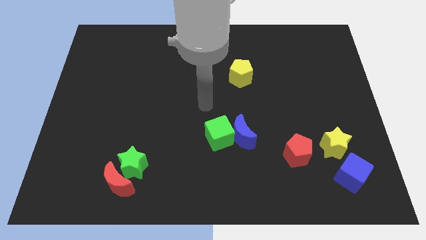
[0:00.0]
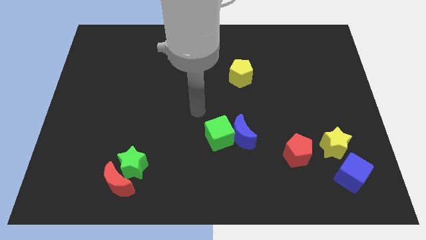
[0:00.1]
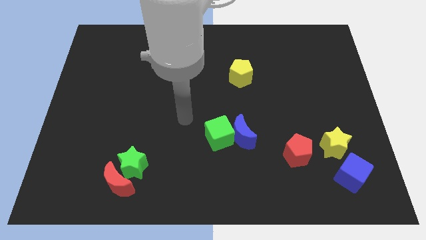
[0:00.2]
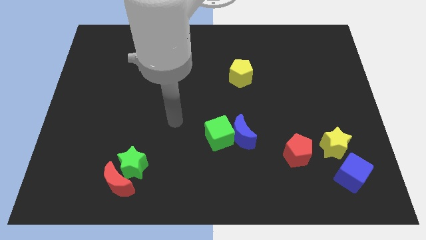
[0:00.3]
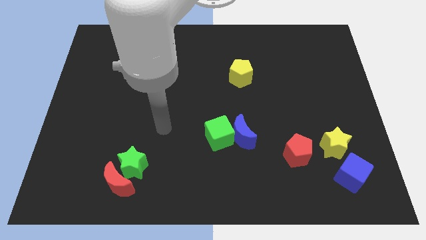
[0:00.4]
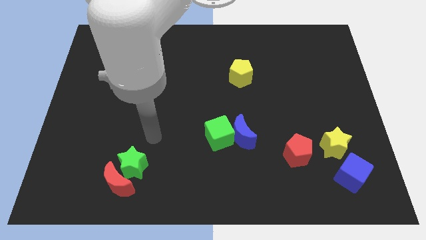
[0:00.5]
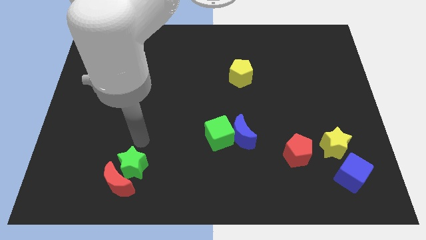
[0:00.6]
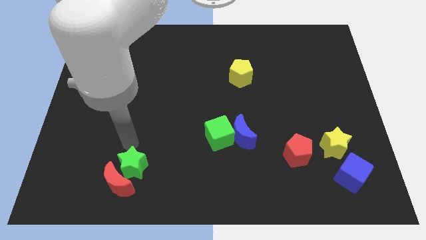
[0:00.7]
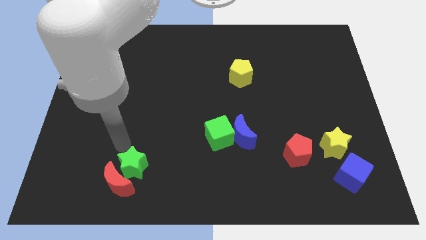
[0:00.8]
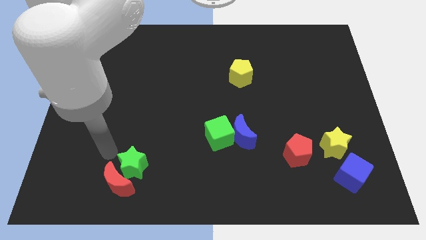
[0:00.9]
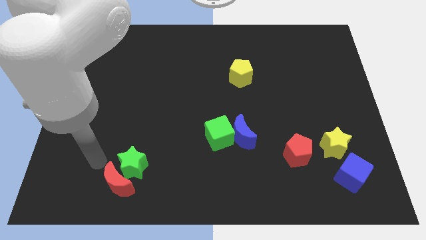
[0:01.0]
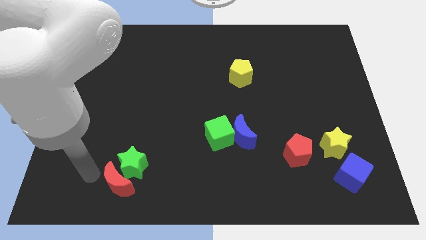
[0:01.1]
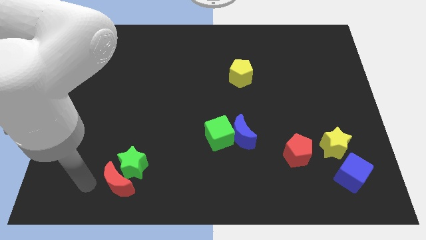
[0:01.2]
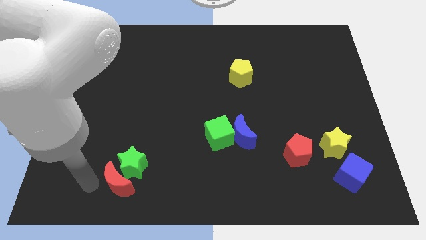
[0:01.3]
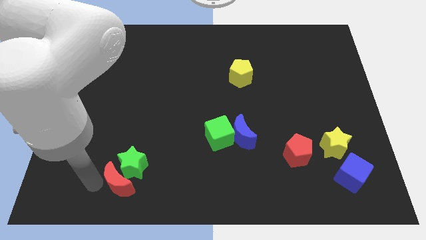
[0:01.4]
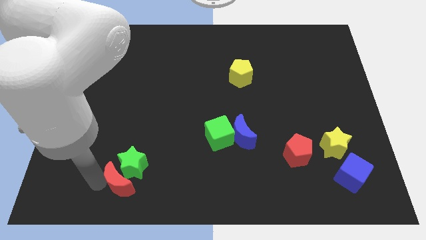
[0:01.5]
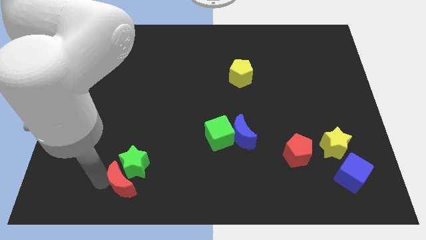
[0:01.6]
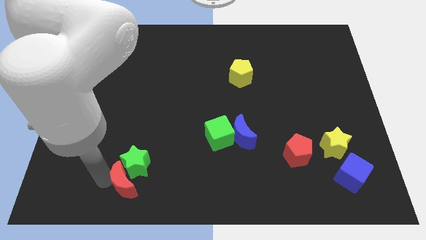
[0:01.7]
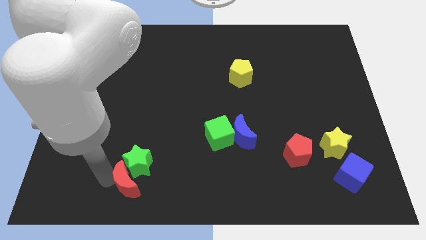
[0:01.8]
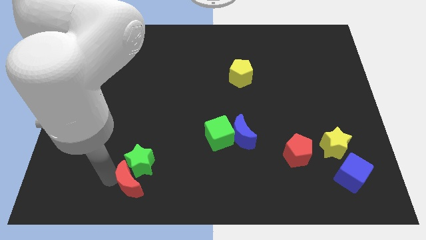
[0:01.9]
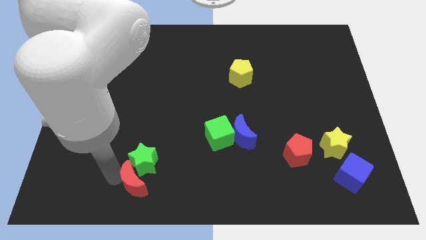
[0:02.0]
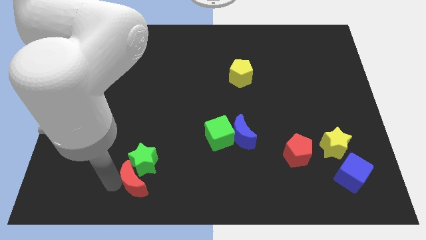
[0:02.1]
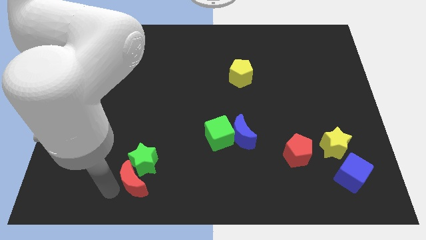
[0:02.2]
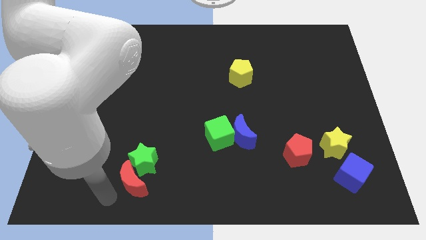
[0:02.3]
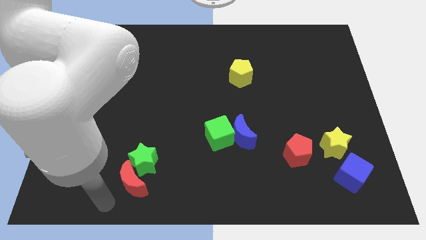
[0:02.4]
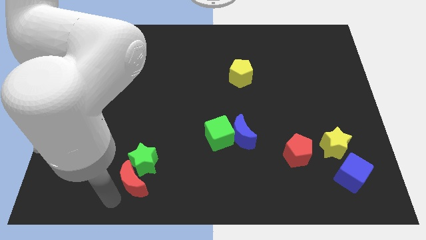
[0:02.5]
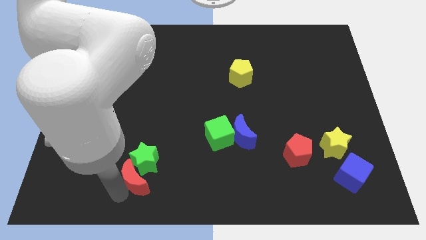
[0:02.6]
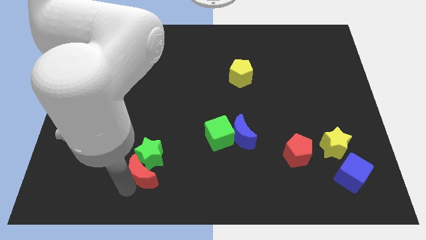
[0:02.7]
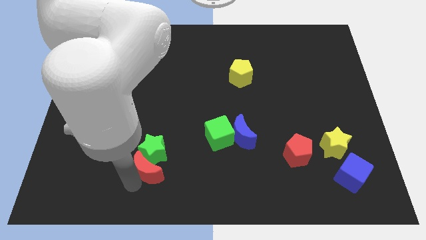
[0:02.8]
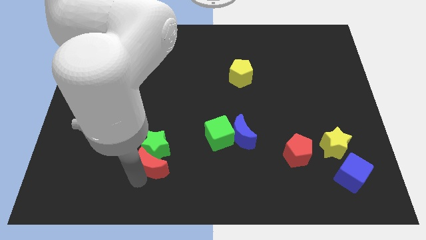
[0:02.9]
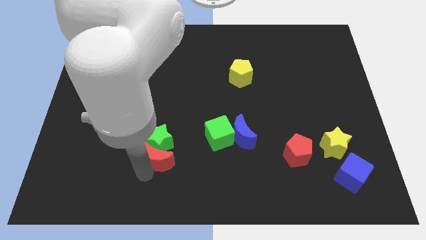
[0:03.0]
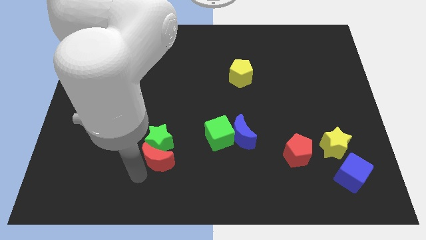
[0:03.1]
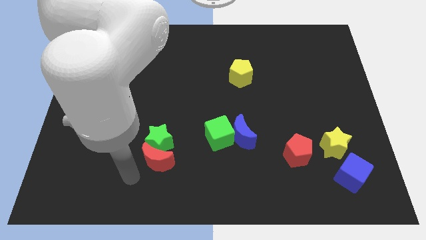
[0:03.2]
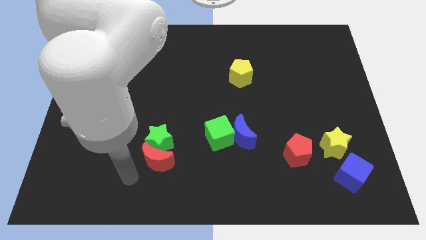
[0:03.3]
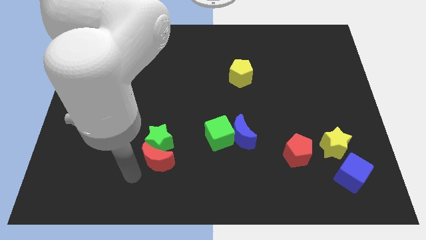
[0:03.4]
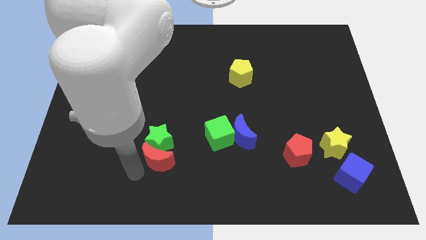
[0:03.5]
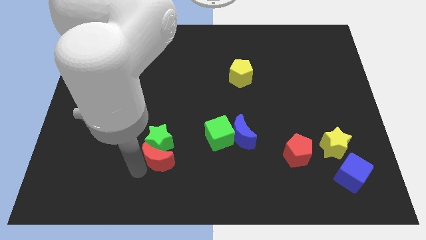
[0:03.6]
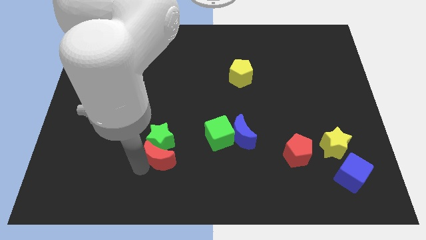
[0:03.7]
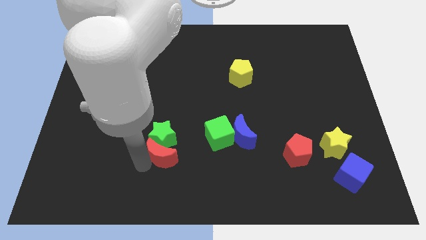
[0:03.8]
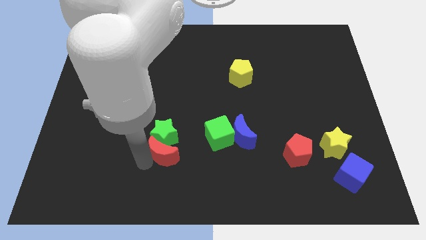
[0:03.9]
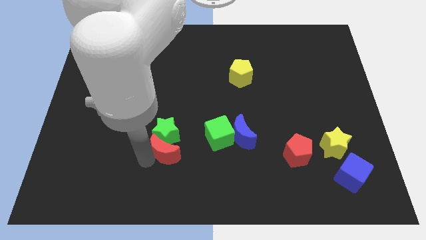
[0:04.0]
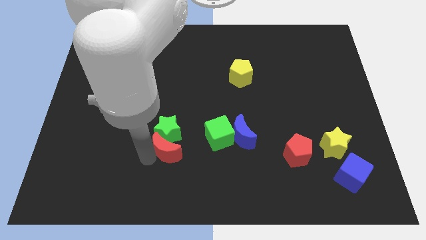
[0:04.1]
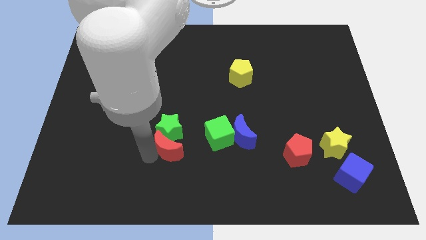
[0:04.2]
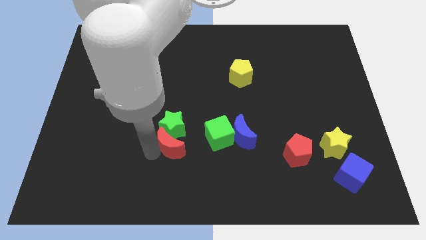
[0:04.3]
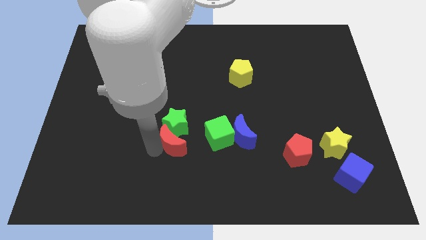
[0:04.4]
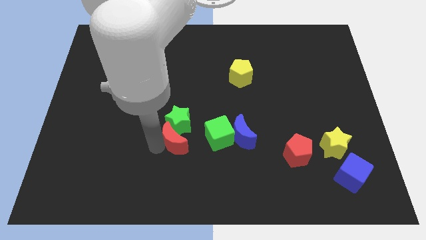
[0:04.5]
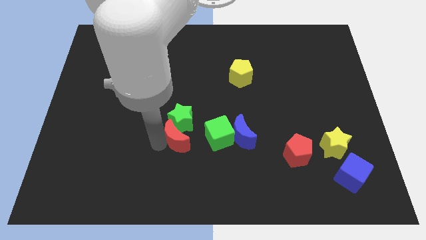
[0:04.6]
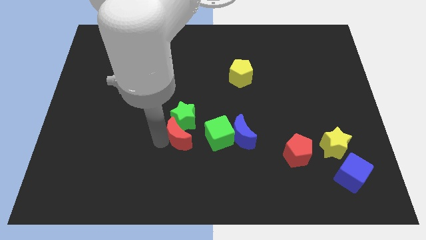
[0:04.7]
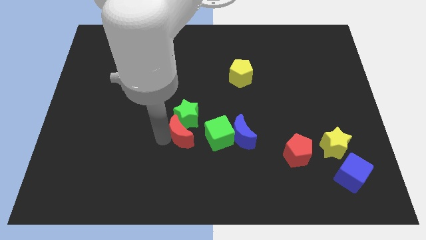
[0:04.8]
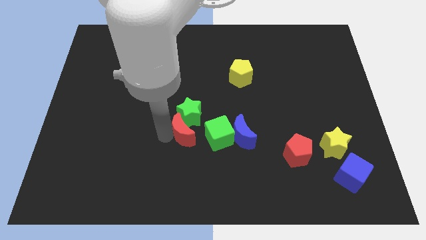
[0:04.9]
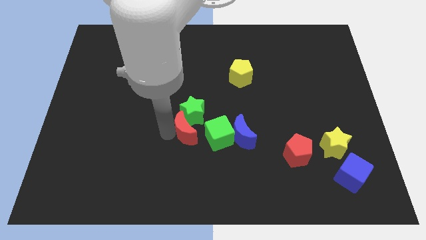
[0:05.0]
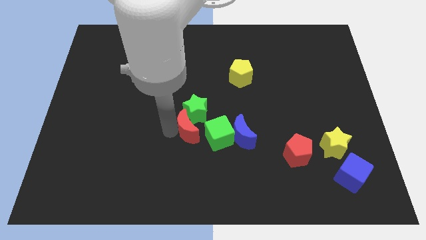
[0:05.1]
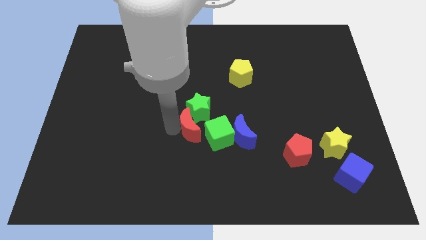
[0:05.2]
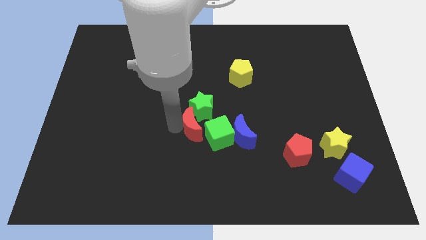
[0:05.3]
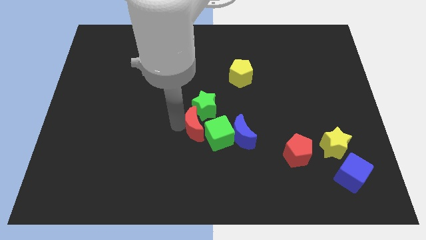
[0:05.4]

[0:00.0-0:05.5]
slide the red moon close to the green cube

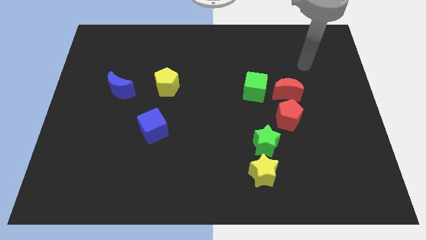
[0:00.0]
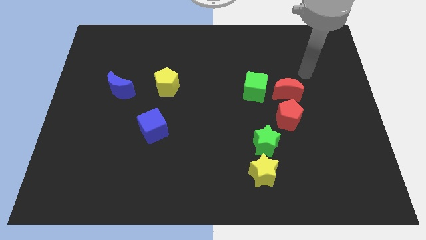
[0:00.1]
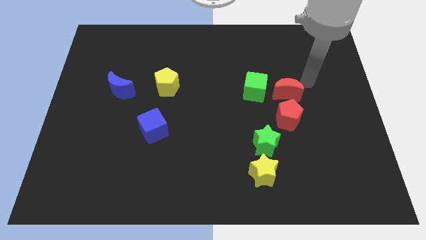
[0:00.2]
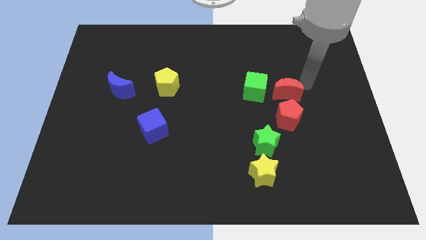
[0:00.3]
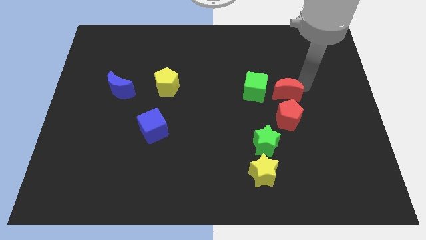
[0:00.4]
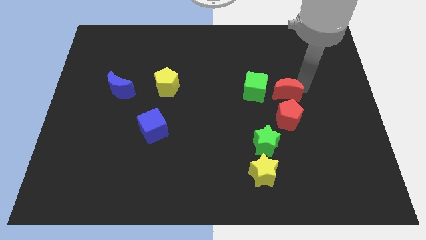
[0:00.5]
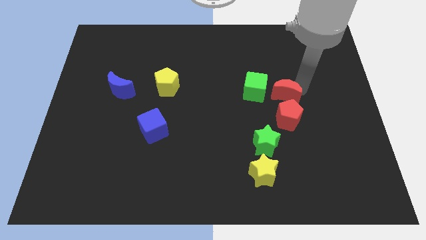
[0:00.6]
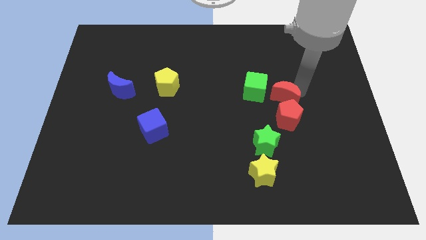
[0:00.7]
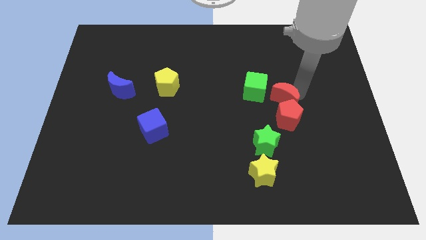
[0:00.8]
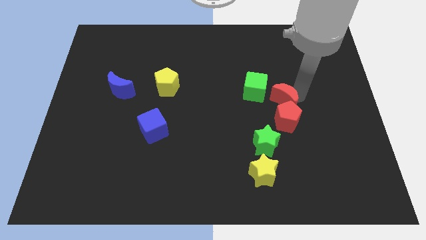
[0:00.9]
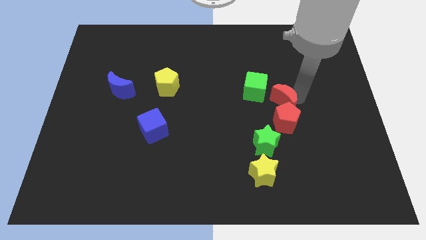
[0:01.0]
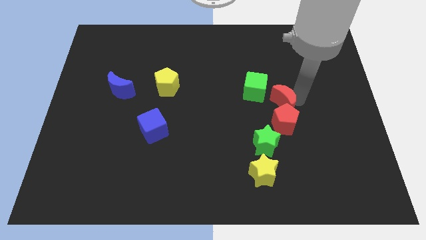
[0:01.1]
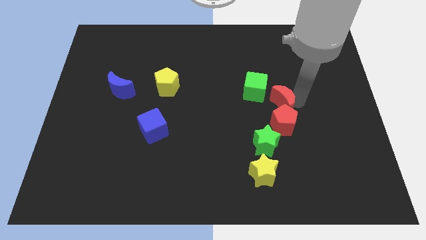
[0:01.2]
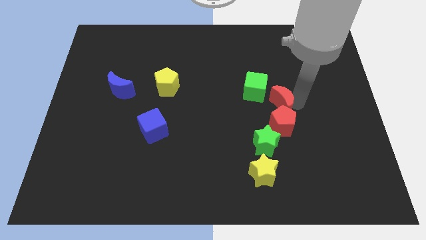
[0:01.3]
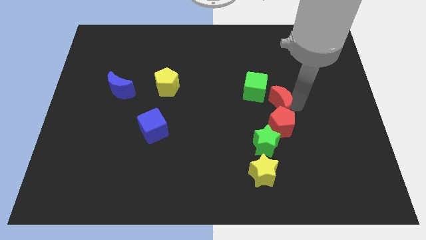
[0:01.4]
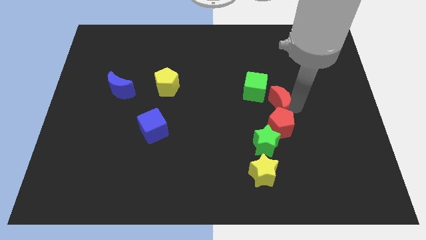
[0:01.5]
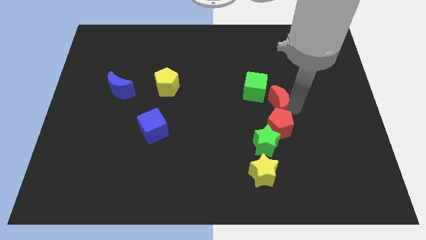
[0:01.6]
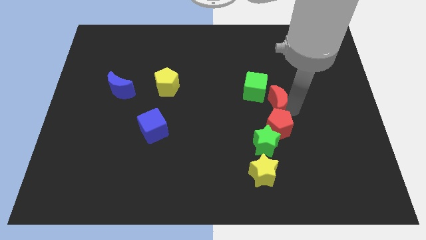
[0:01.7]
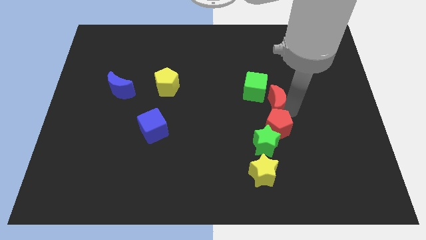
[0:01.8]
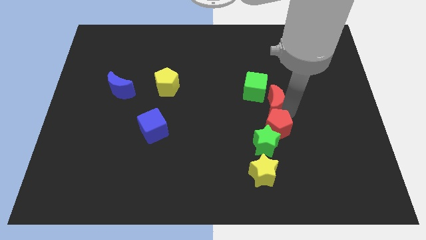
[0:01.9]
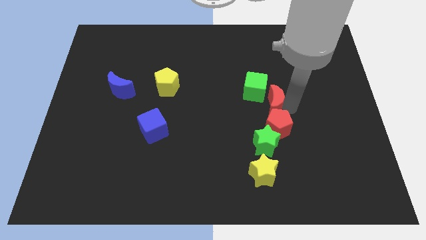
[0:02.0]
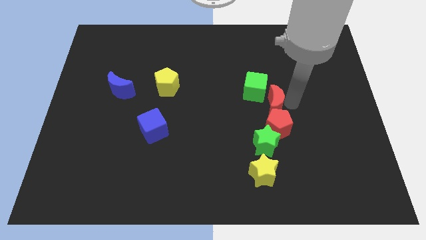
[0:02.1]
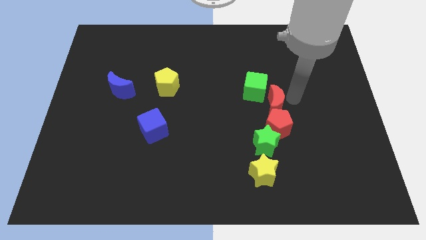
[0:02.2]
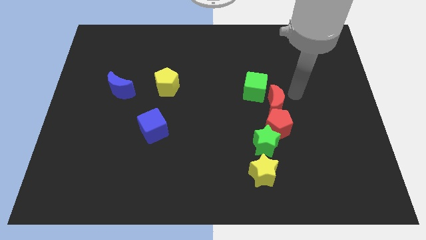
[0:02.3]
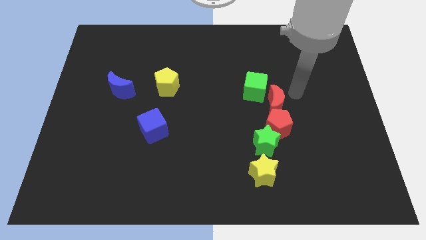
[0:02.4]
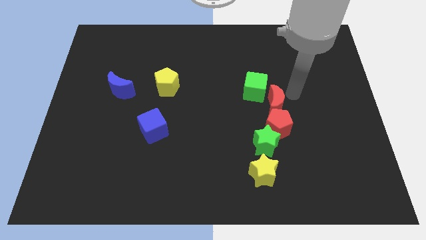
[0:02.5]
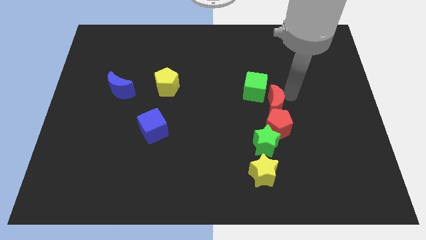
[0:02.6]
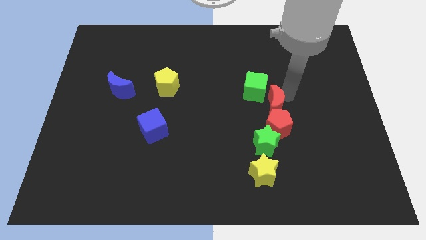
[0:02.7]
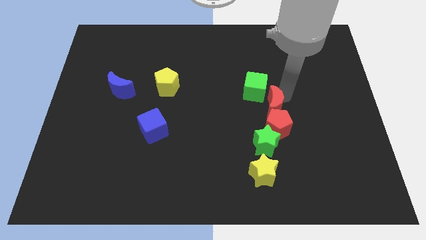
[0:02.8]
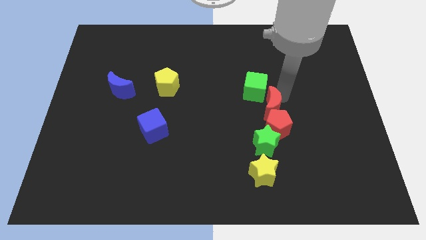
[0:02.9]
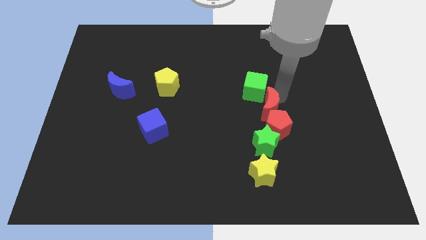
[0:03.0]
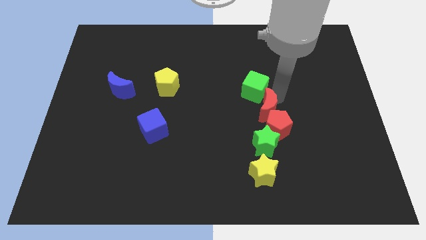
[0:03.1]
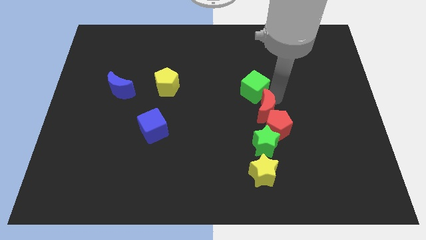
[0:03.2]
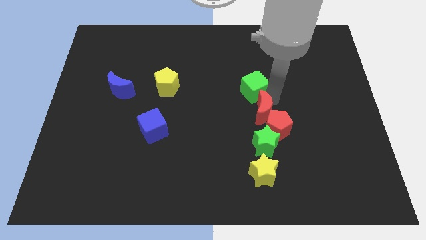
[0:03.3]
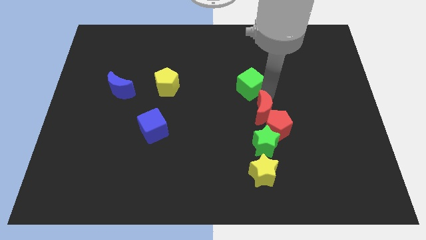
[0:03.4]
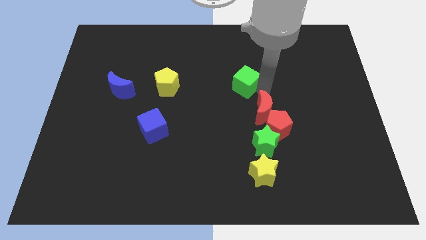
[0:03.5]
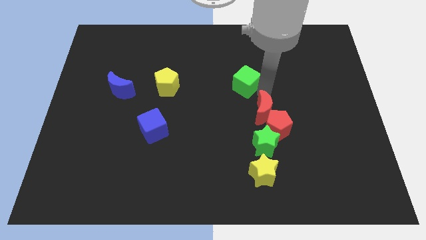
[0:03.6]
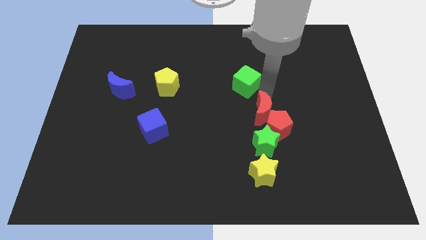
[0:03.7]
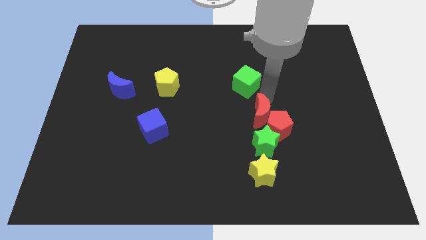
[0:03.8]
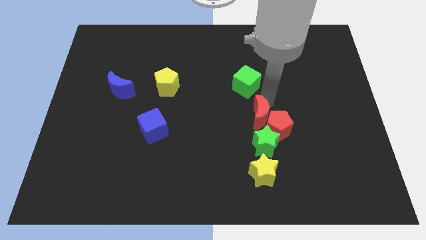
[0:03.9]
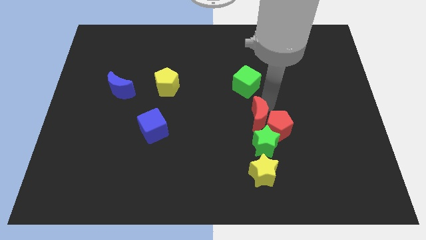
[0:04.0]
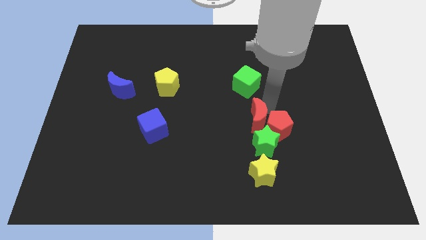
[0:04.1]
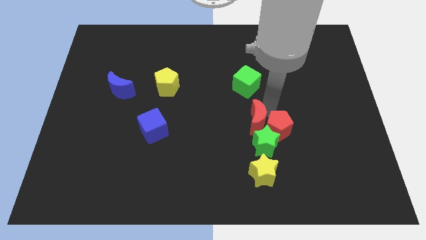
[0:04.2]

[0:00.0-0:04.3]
slide the red moon towards the green star
